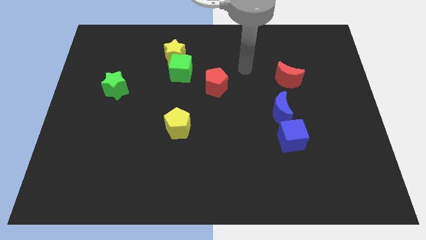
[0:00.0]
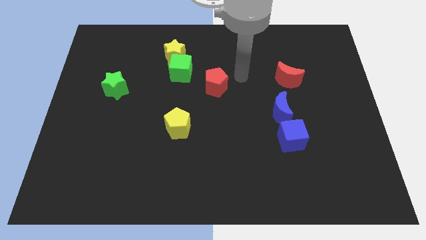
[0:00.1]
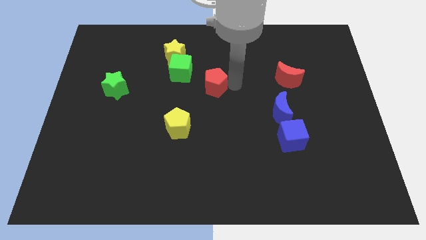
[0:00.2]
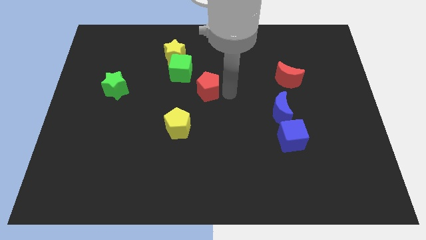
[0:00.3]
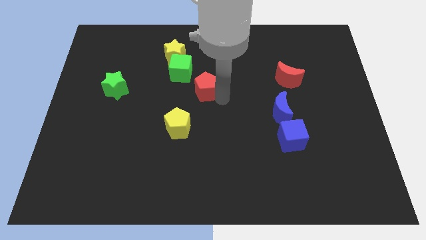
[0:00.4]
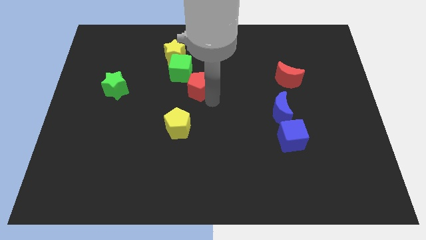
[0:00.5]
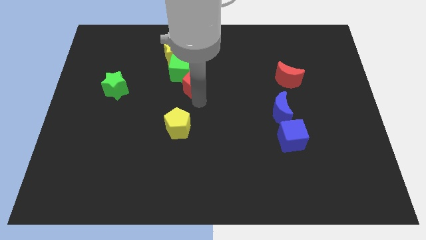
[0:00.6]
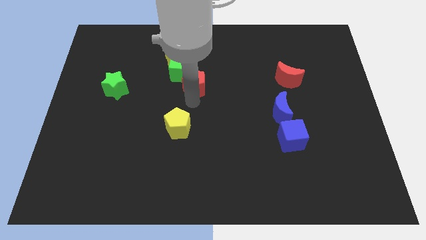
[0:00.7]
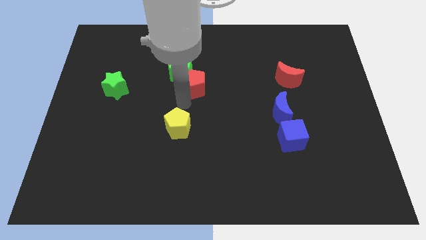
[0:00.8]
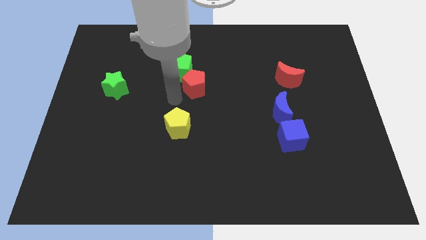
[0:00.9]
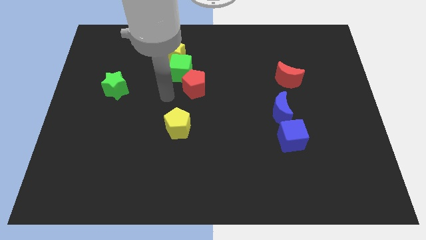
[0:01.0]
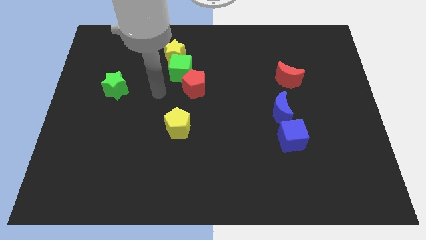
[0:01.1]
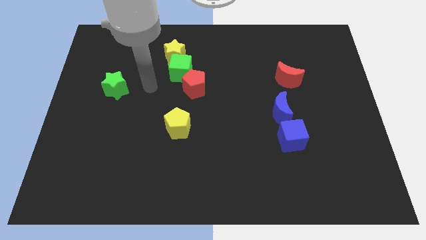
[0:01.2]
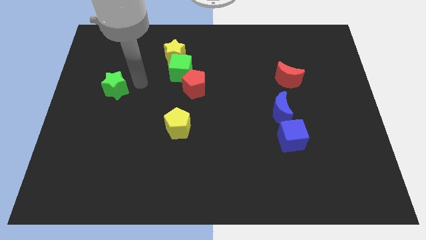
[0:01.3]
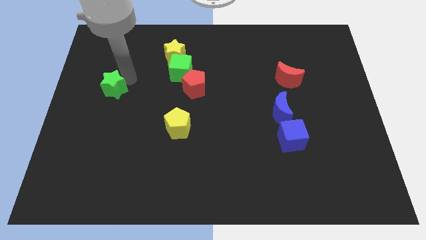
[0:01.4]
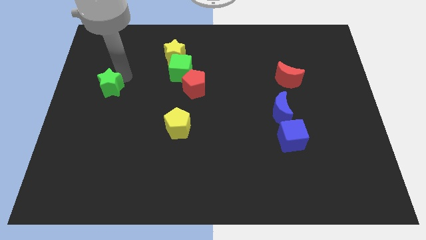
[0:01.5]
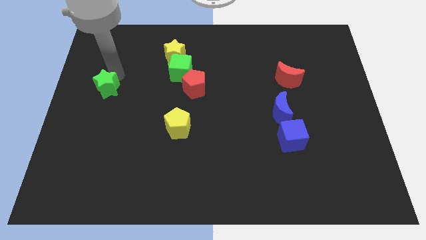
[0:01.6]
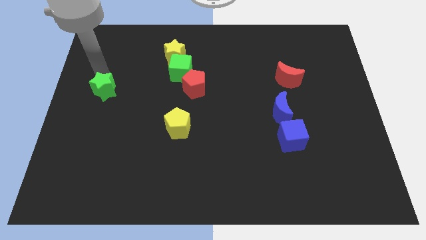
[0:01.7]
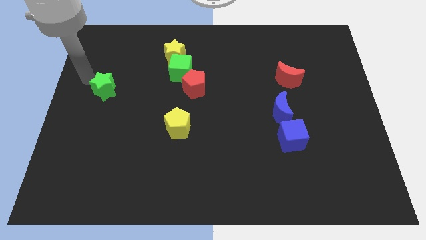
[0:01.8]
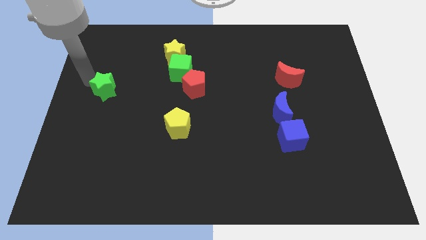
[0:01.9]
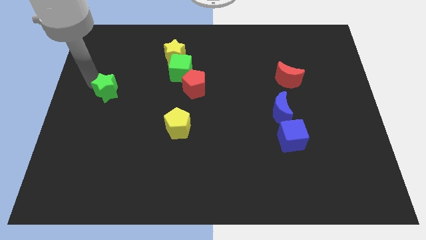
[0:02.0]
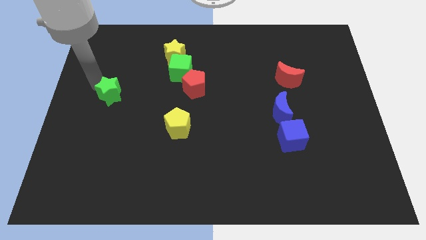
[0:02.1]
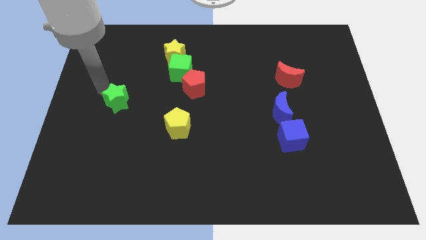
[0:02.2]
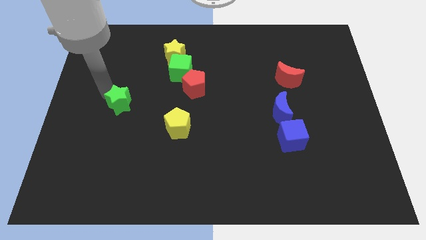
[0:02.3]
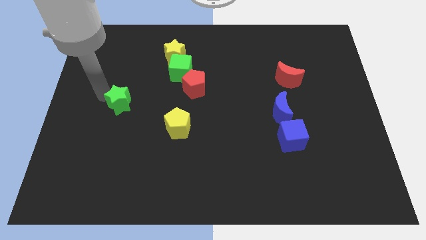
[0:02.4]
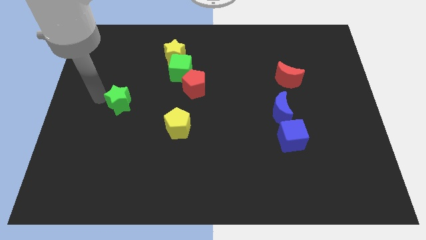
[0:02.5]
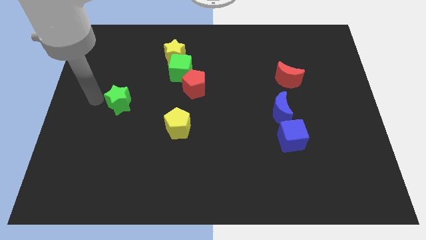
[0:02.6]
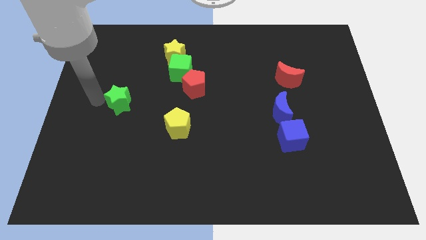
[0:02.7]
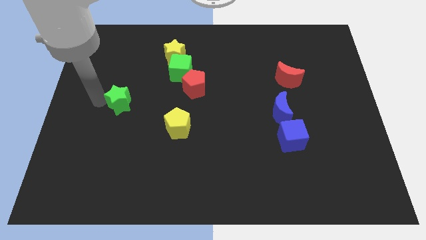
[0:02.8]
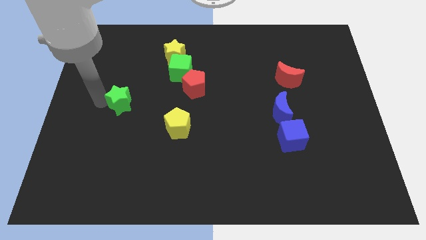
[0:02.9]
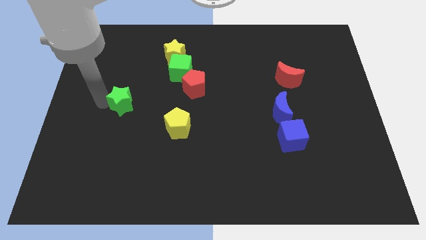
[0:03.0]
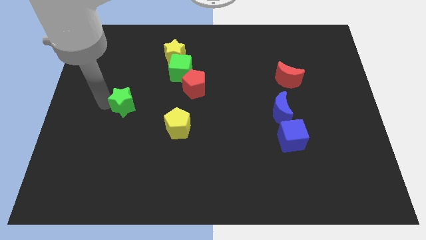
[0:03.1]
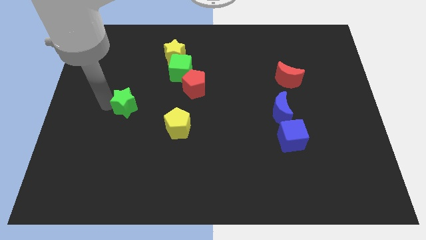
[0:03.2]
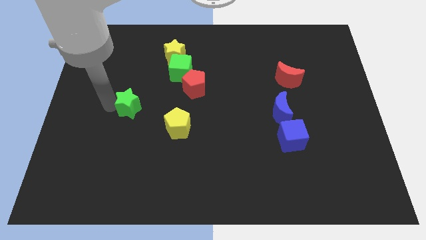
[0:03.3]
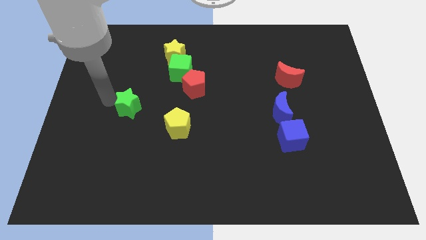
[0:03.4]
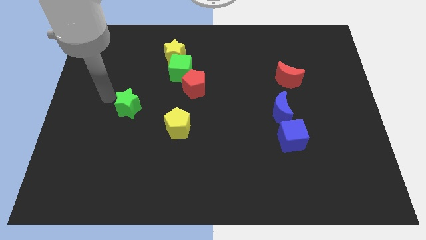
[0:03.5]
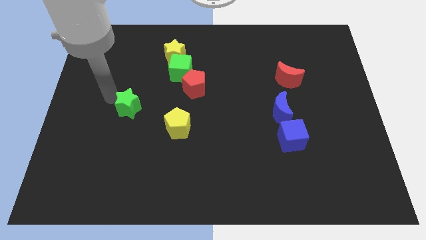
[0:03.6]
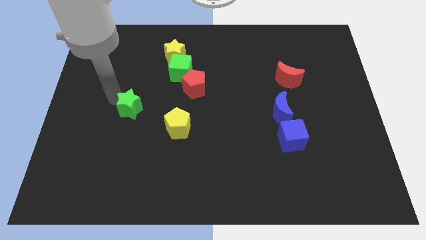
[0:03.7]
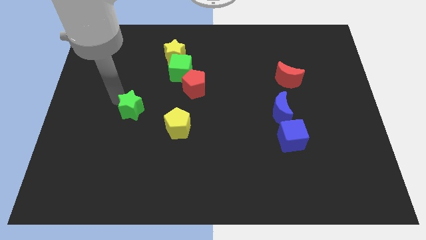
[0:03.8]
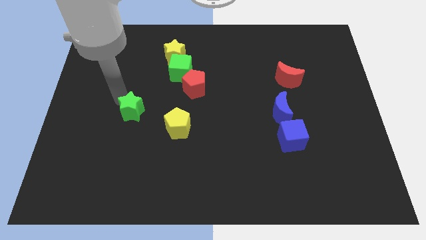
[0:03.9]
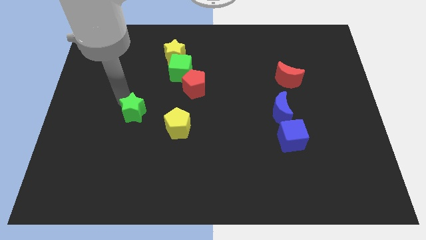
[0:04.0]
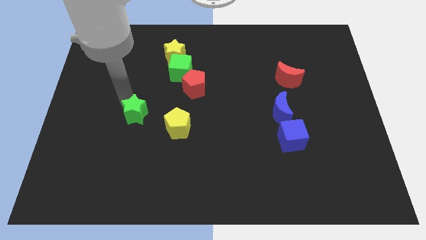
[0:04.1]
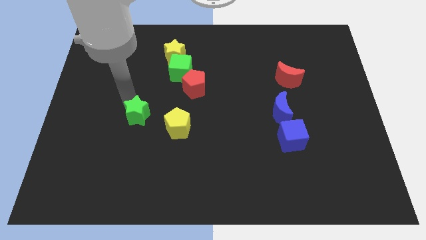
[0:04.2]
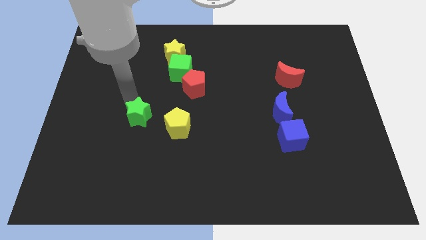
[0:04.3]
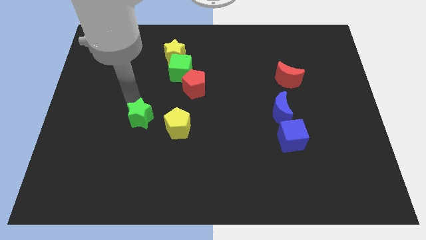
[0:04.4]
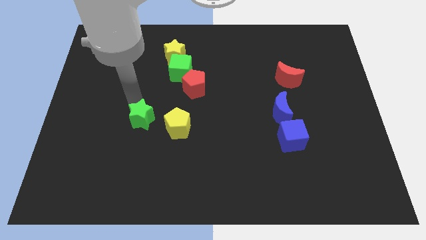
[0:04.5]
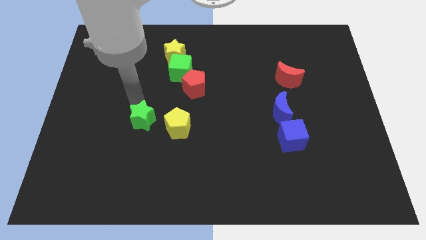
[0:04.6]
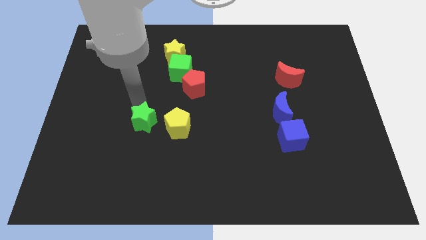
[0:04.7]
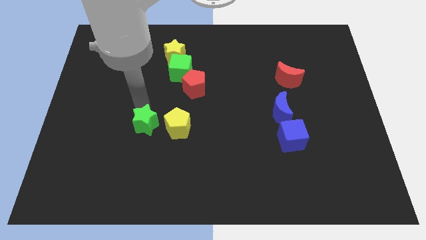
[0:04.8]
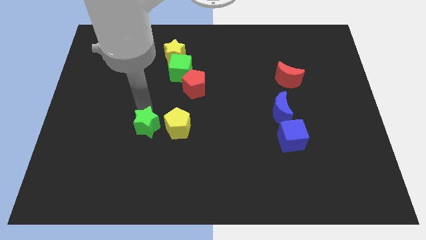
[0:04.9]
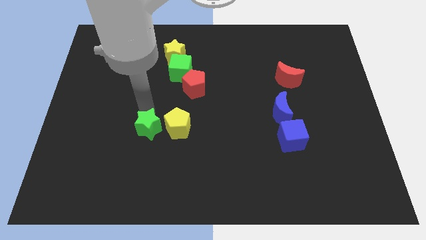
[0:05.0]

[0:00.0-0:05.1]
move the green star towards the yellow pentagon

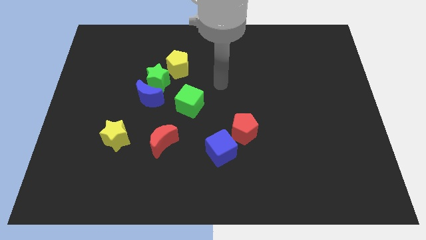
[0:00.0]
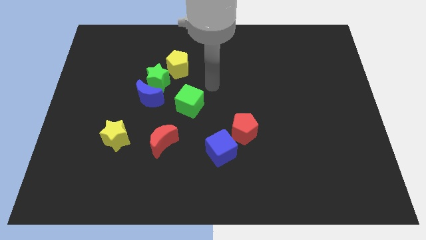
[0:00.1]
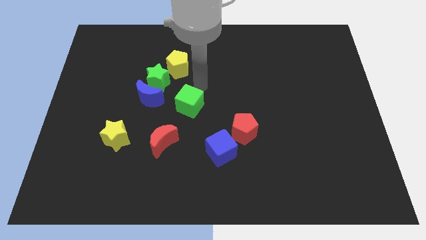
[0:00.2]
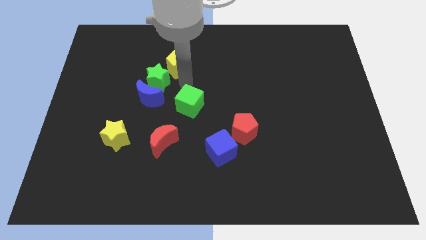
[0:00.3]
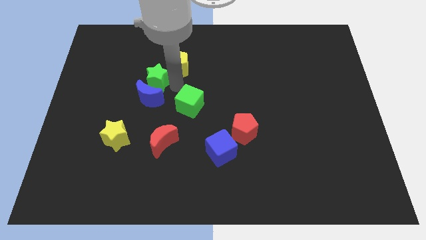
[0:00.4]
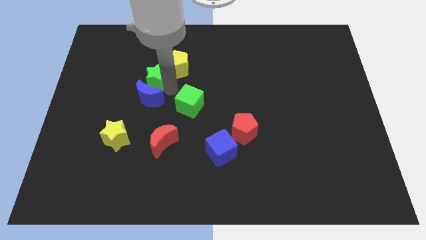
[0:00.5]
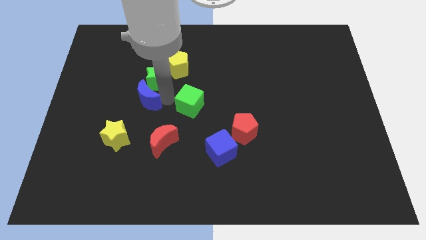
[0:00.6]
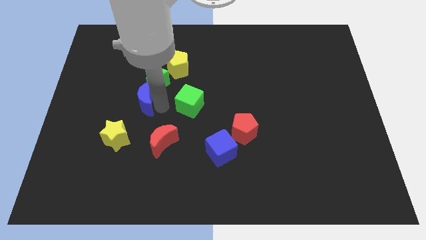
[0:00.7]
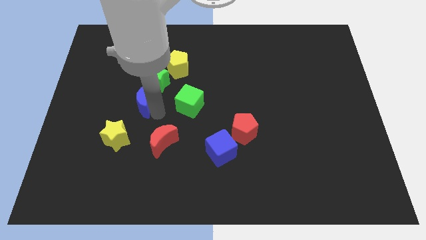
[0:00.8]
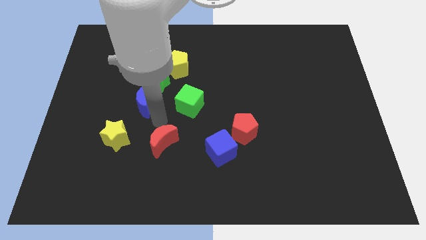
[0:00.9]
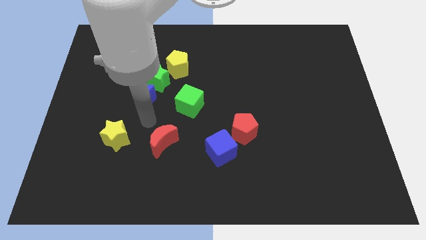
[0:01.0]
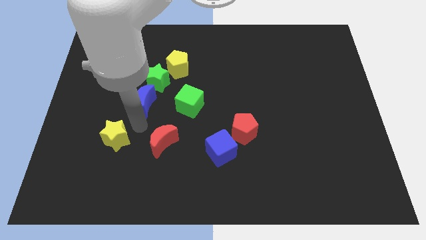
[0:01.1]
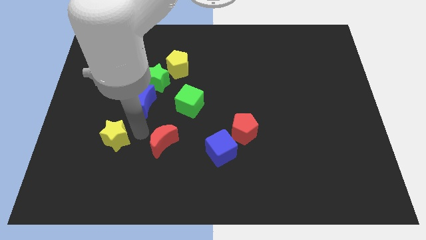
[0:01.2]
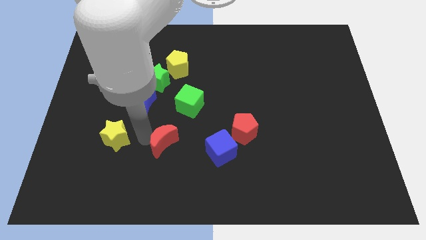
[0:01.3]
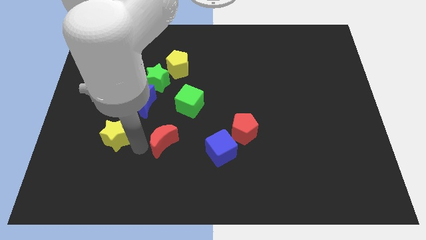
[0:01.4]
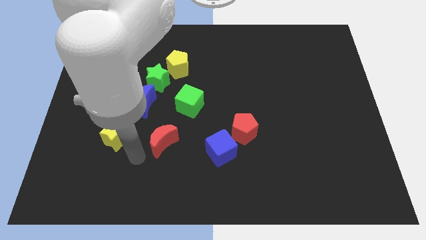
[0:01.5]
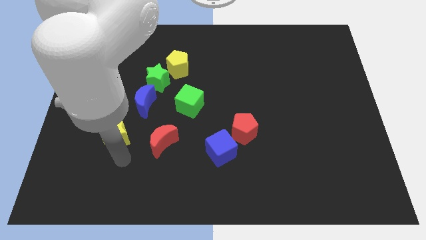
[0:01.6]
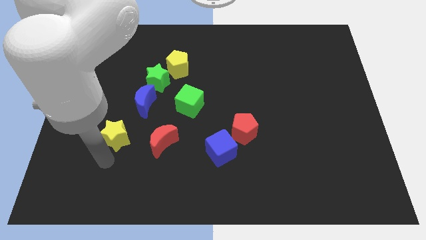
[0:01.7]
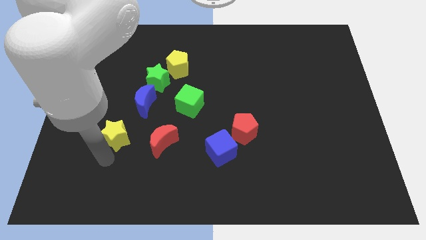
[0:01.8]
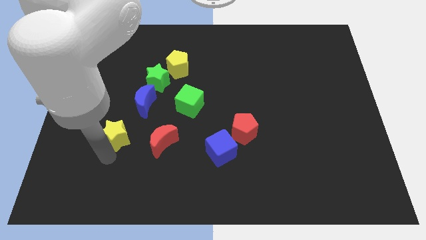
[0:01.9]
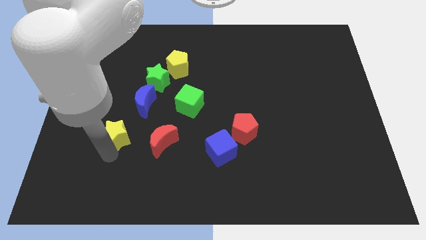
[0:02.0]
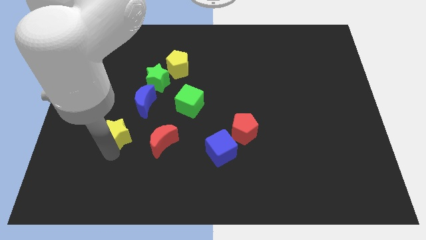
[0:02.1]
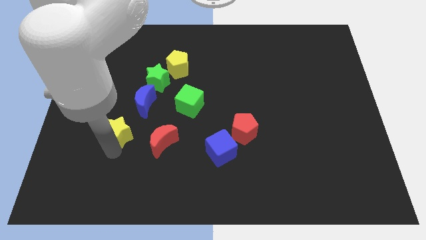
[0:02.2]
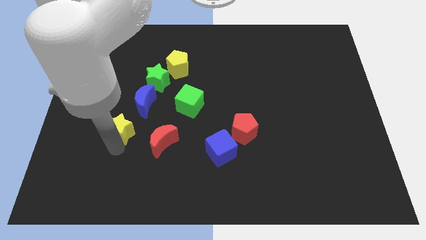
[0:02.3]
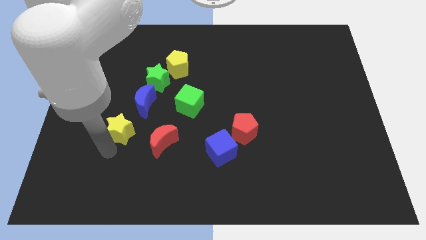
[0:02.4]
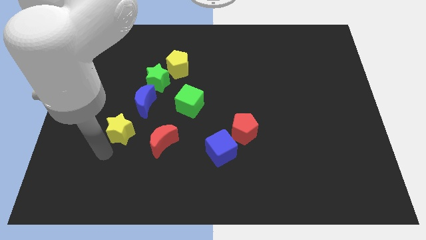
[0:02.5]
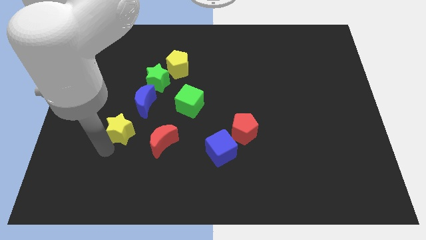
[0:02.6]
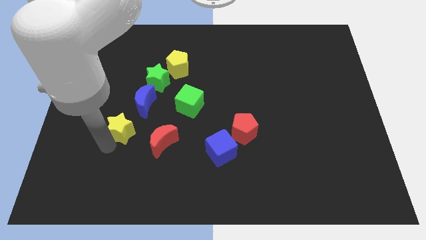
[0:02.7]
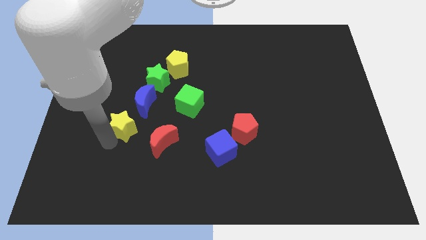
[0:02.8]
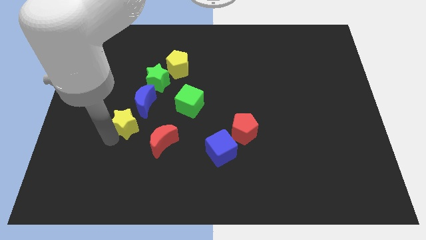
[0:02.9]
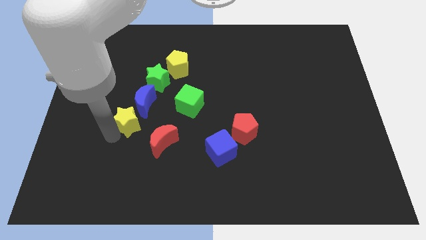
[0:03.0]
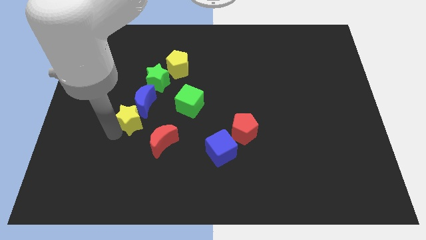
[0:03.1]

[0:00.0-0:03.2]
put the yellow star to the blue moon
